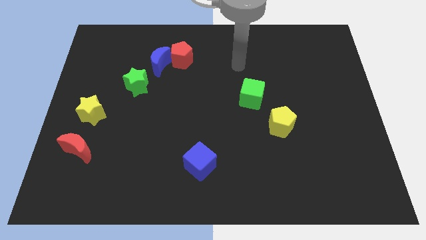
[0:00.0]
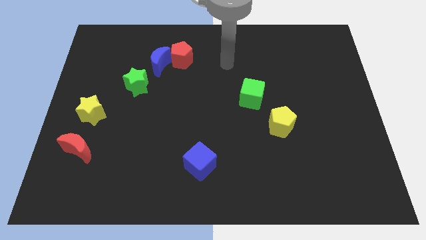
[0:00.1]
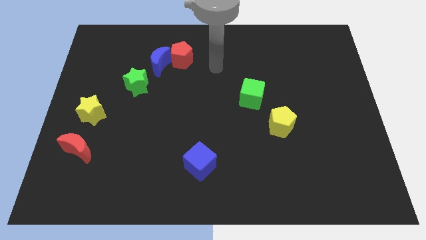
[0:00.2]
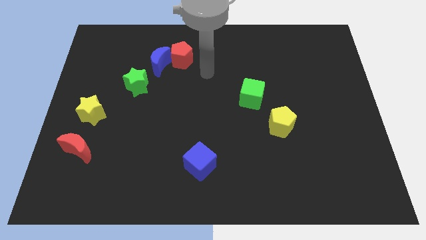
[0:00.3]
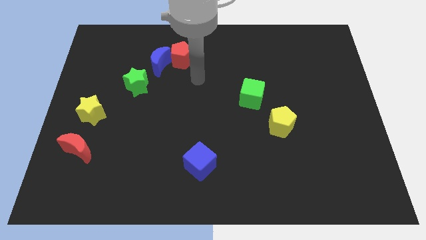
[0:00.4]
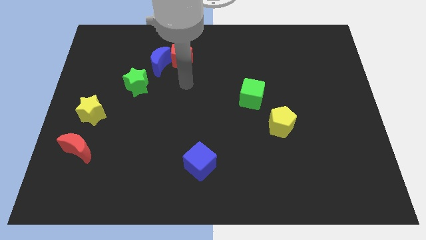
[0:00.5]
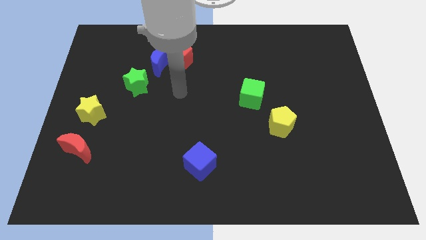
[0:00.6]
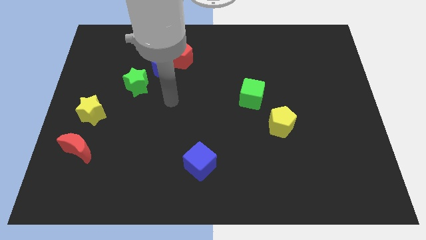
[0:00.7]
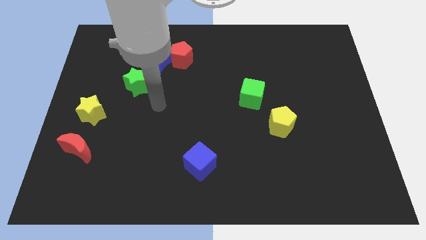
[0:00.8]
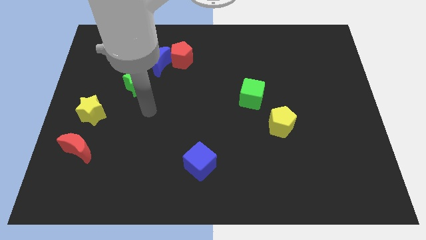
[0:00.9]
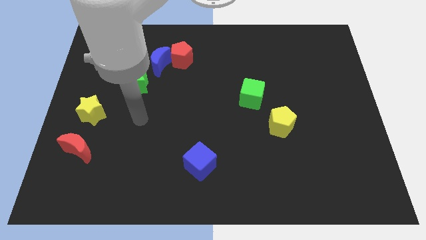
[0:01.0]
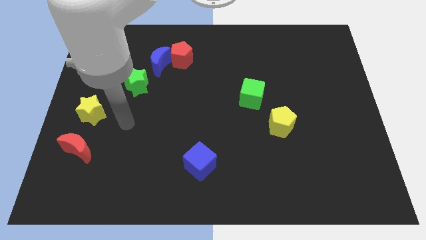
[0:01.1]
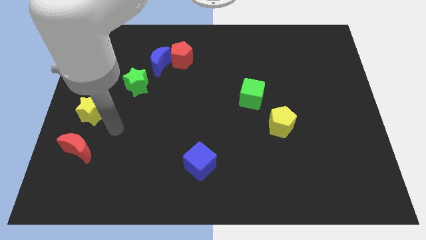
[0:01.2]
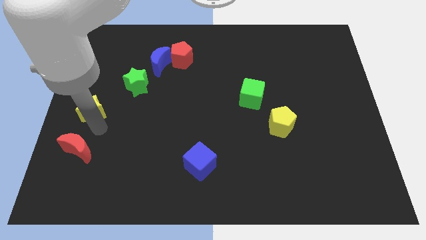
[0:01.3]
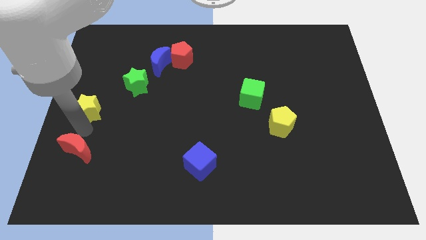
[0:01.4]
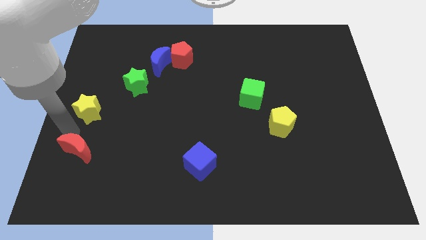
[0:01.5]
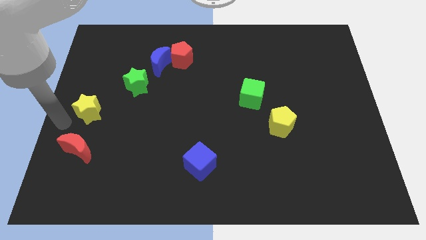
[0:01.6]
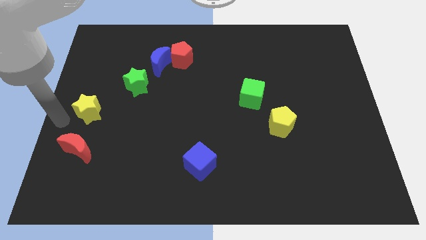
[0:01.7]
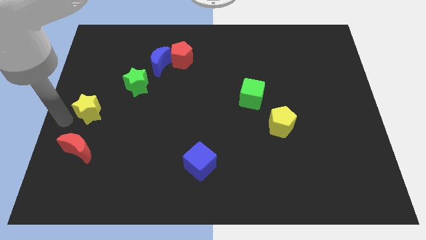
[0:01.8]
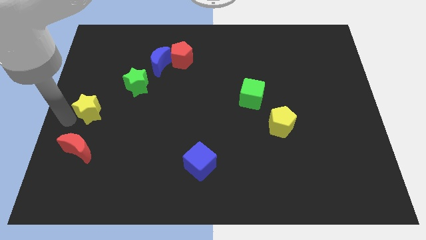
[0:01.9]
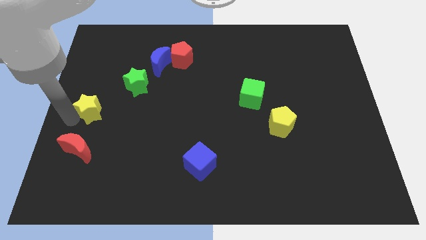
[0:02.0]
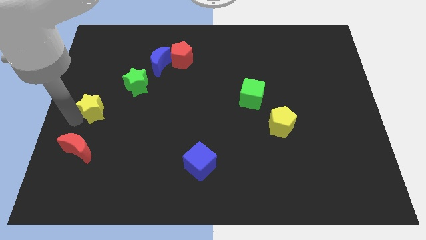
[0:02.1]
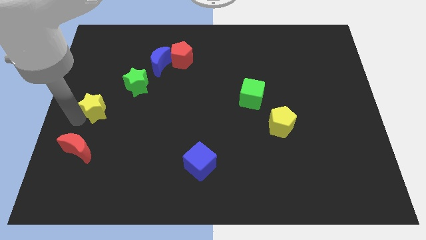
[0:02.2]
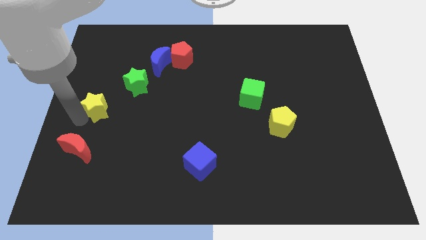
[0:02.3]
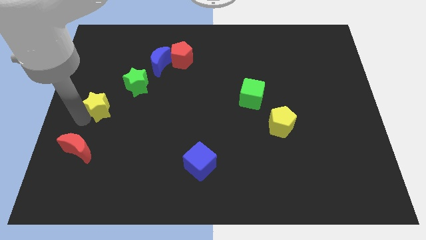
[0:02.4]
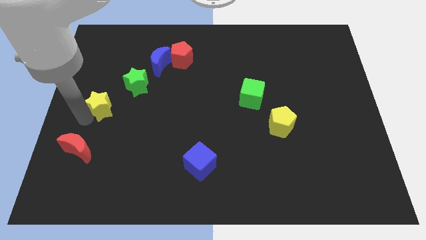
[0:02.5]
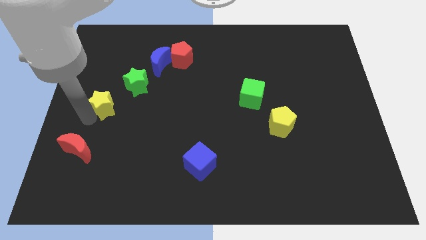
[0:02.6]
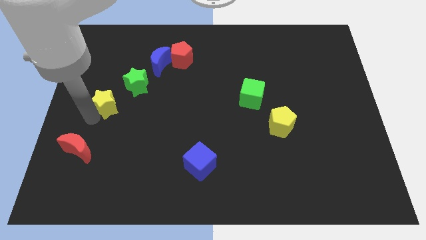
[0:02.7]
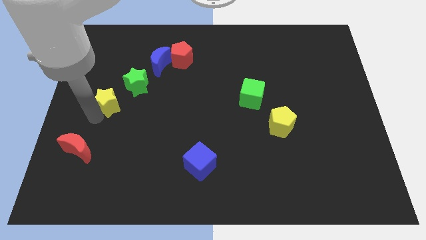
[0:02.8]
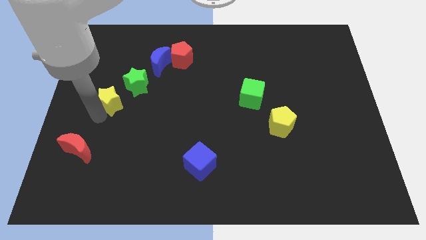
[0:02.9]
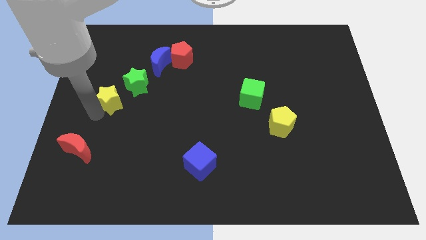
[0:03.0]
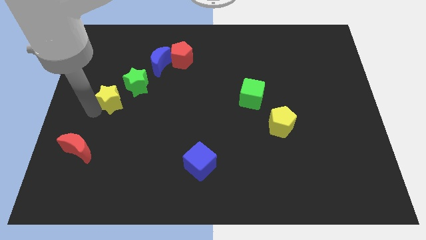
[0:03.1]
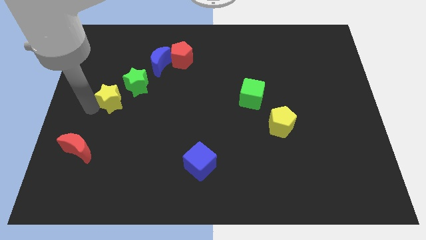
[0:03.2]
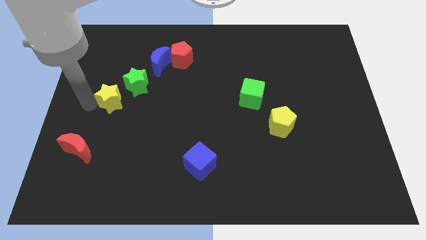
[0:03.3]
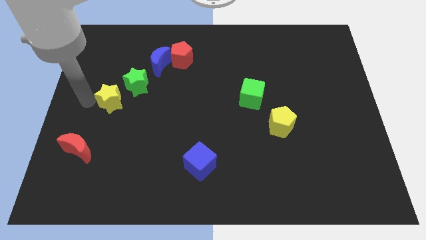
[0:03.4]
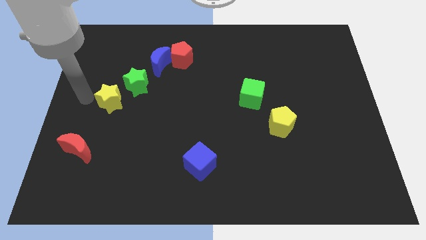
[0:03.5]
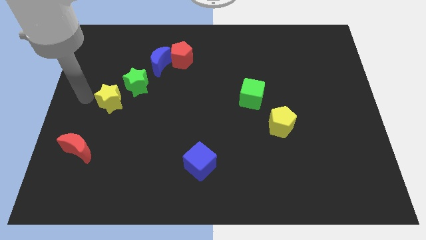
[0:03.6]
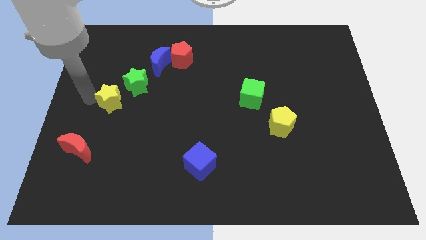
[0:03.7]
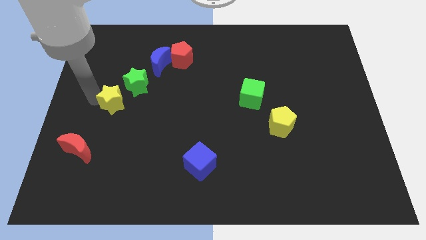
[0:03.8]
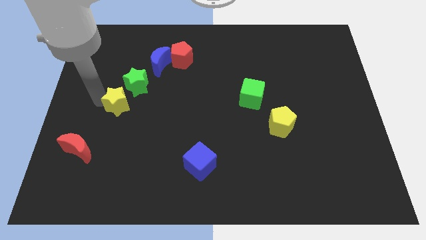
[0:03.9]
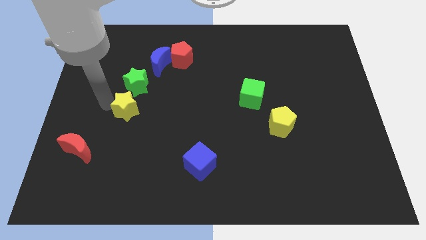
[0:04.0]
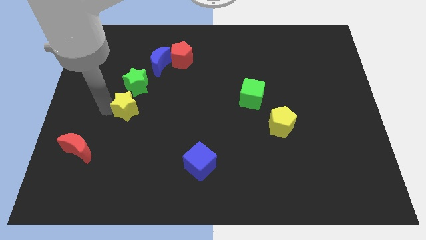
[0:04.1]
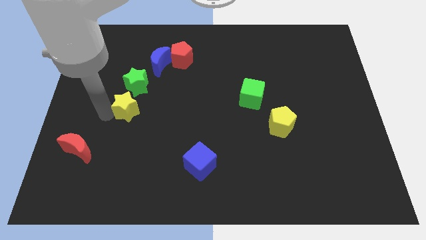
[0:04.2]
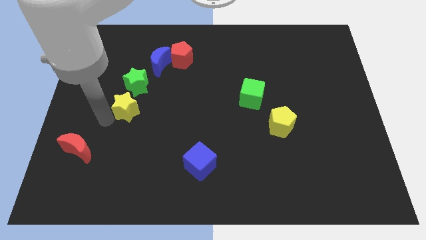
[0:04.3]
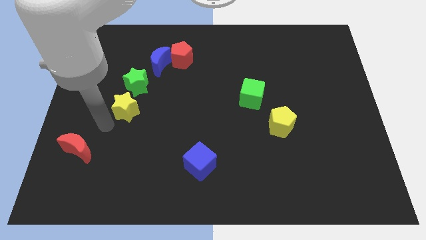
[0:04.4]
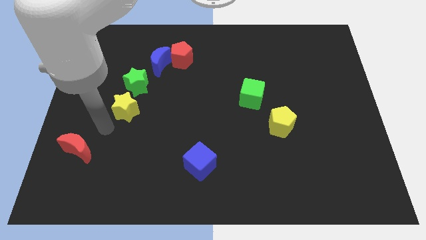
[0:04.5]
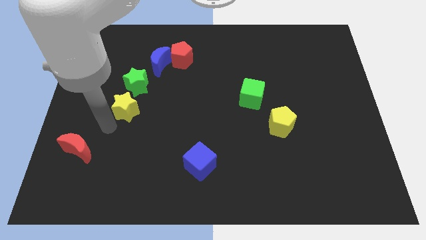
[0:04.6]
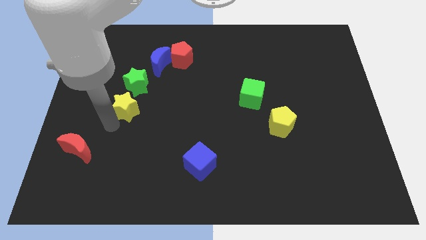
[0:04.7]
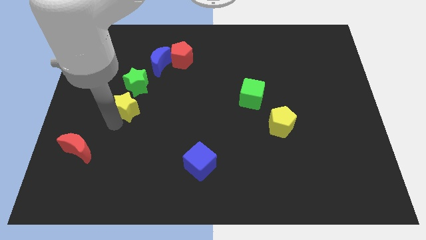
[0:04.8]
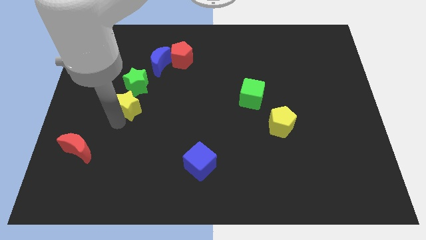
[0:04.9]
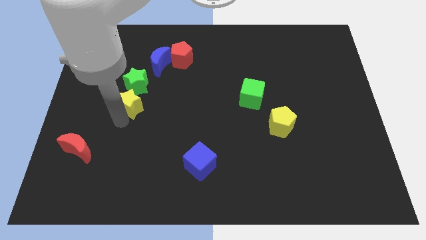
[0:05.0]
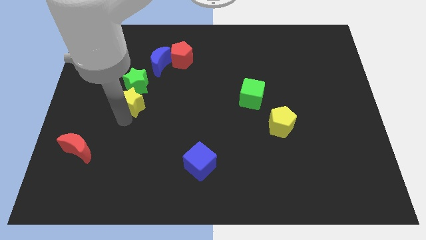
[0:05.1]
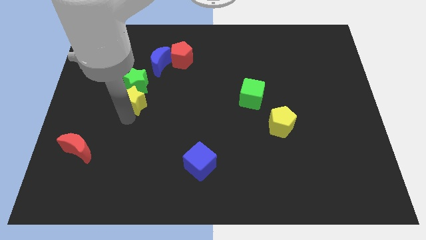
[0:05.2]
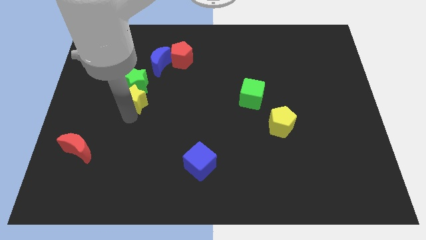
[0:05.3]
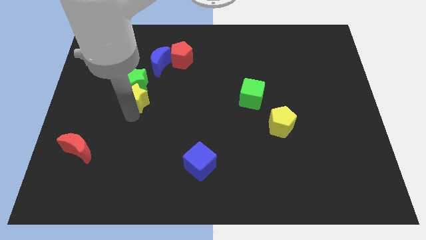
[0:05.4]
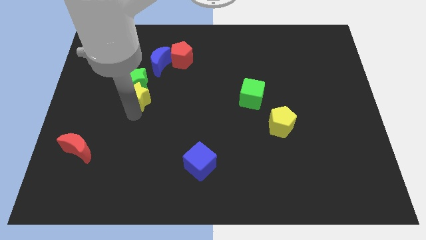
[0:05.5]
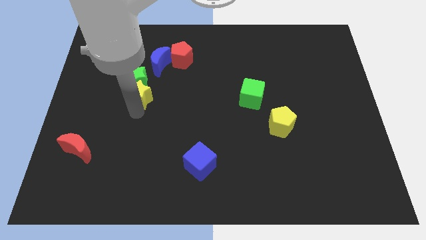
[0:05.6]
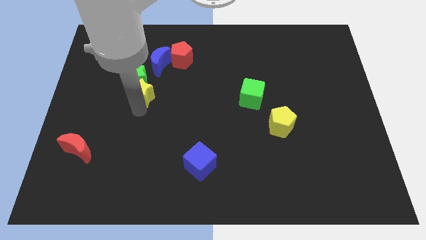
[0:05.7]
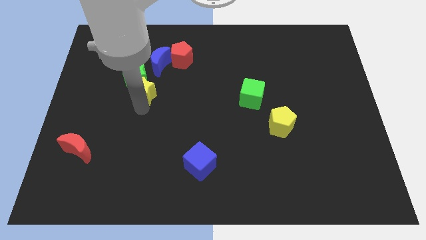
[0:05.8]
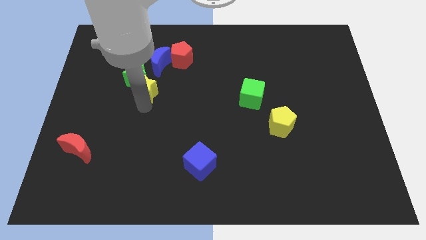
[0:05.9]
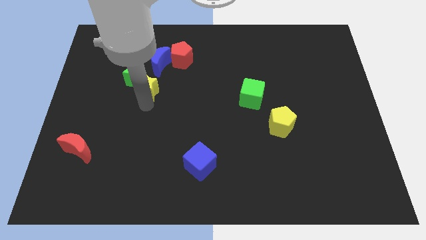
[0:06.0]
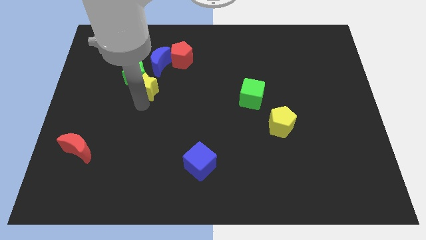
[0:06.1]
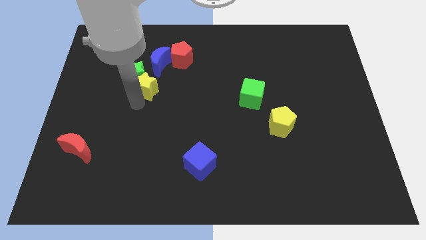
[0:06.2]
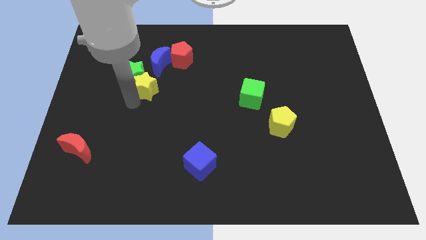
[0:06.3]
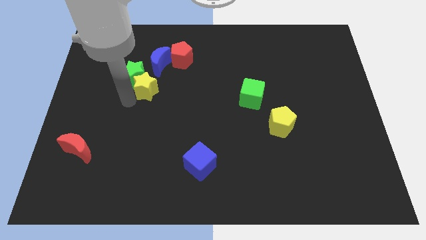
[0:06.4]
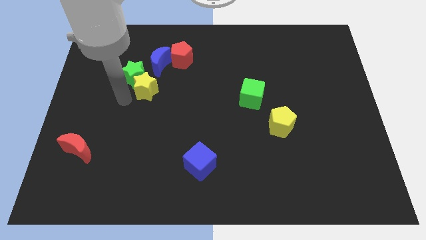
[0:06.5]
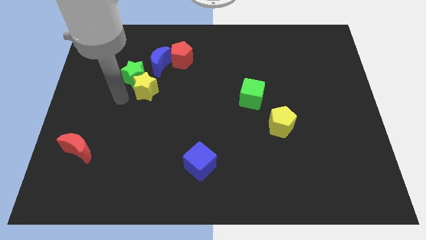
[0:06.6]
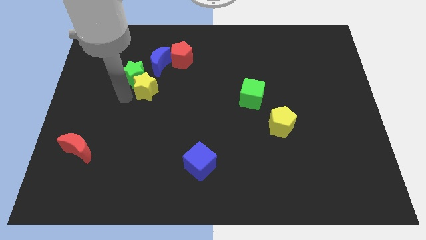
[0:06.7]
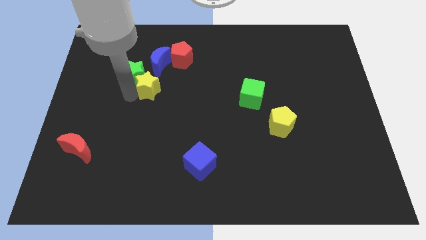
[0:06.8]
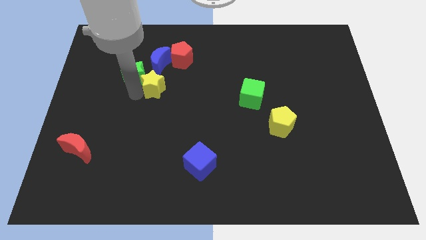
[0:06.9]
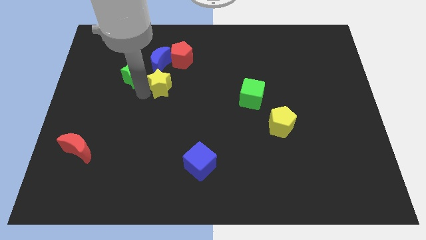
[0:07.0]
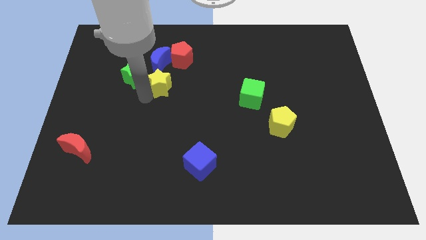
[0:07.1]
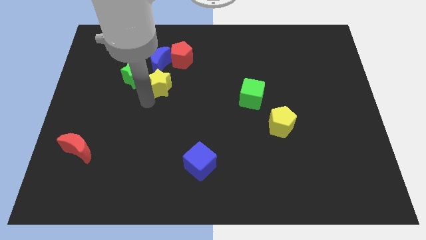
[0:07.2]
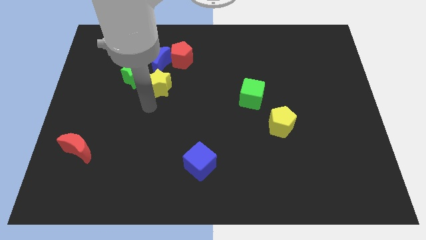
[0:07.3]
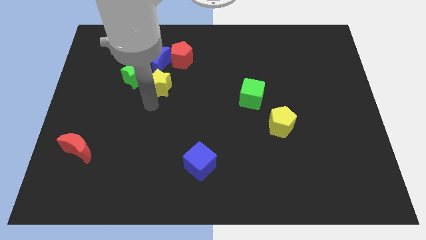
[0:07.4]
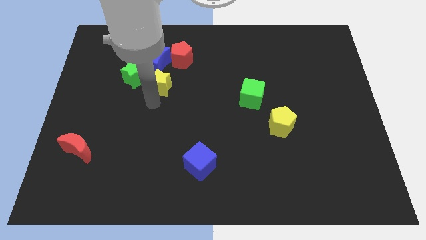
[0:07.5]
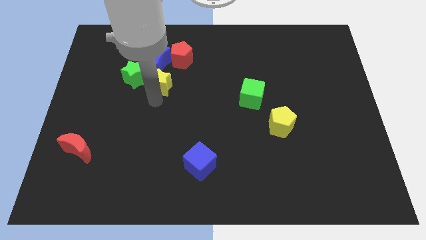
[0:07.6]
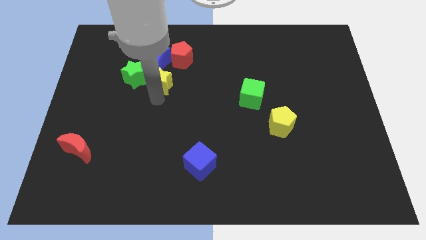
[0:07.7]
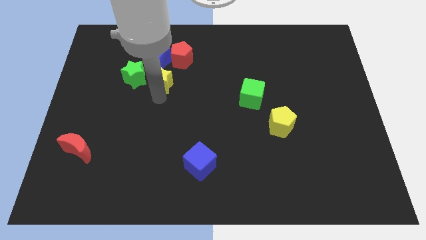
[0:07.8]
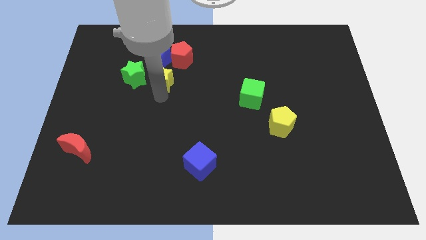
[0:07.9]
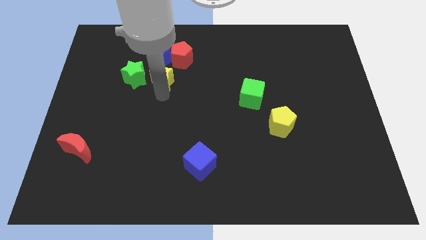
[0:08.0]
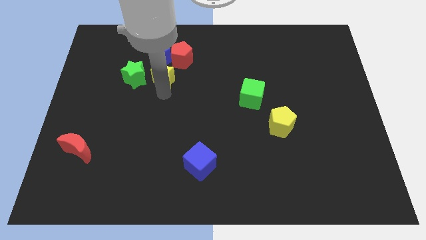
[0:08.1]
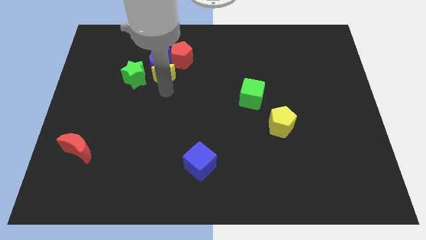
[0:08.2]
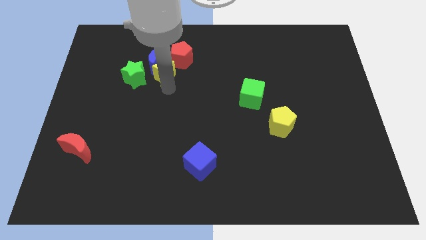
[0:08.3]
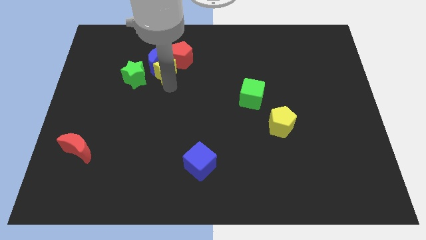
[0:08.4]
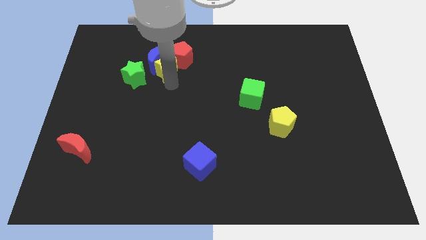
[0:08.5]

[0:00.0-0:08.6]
put the yellow star towards the red pentagon
